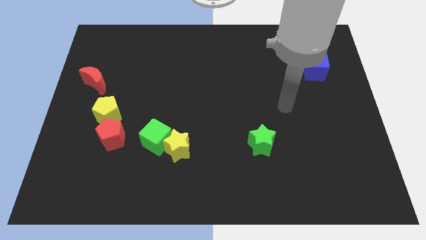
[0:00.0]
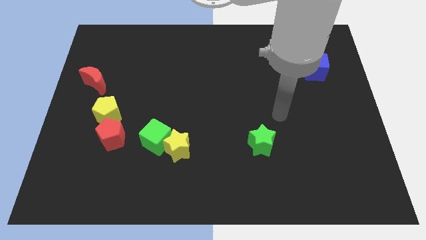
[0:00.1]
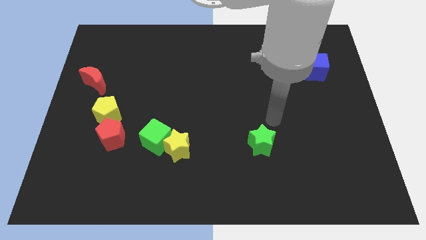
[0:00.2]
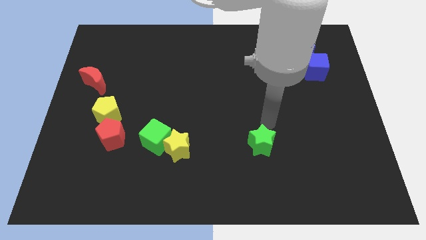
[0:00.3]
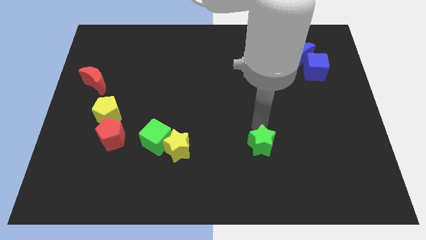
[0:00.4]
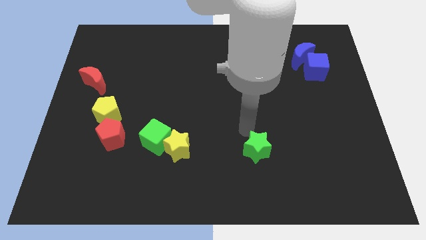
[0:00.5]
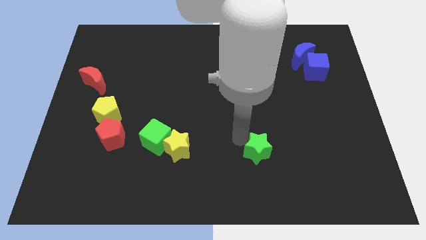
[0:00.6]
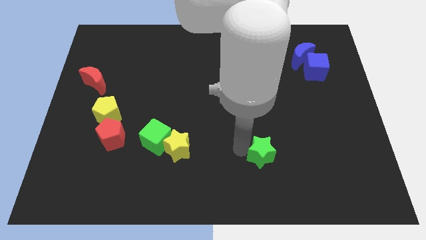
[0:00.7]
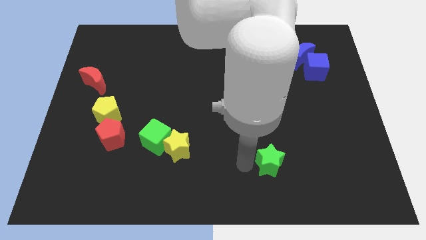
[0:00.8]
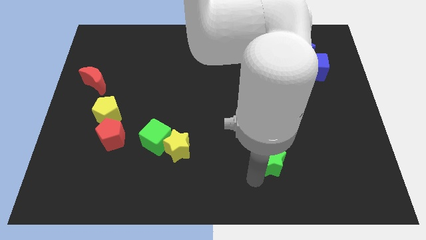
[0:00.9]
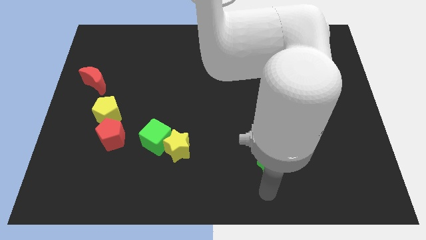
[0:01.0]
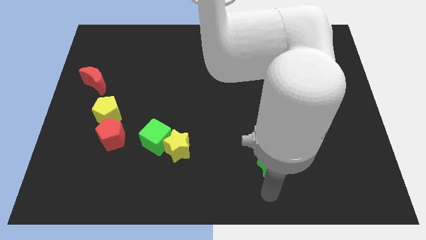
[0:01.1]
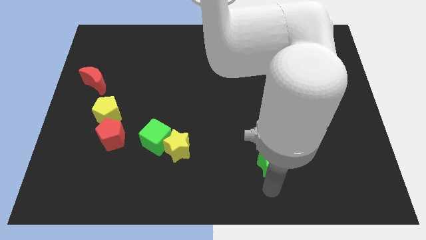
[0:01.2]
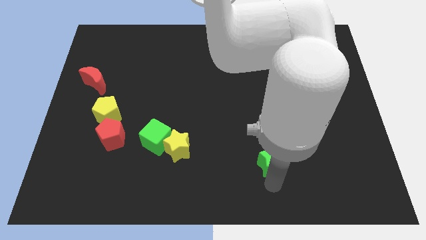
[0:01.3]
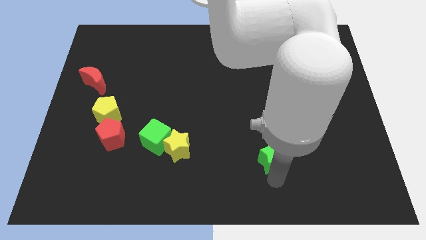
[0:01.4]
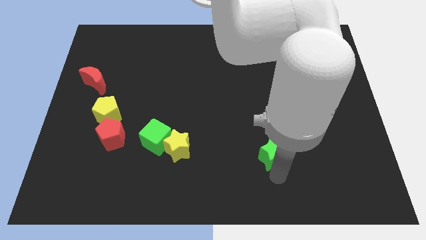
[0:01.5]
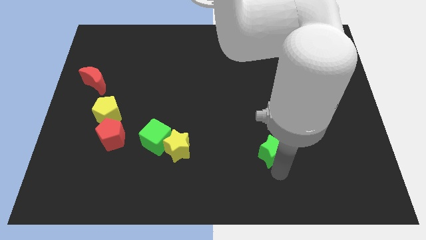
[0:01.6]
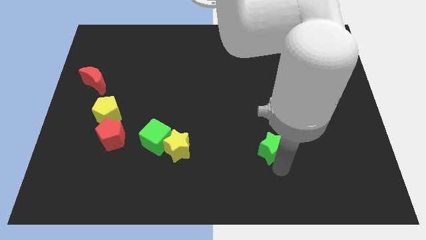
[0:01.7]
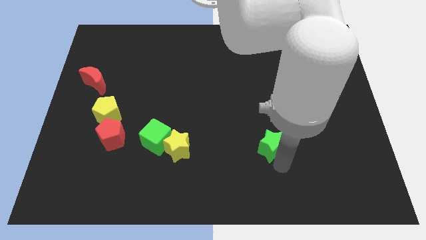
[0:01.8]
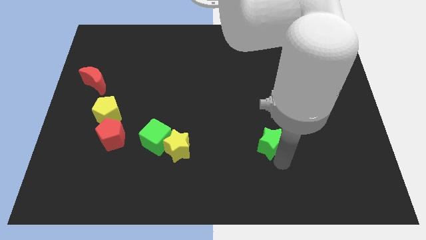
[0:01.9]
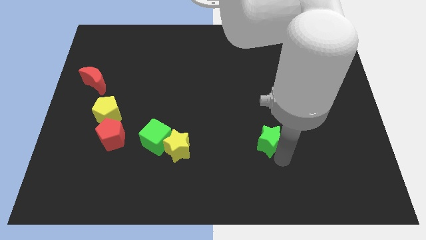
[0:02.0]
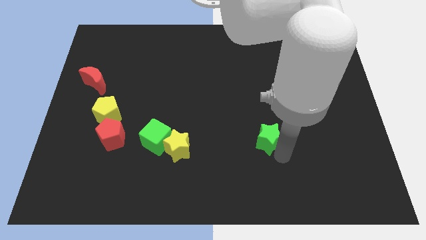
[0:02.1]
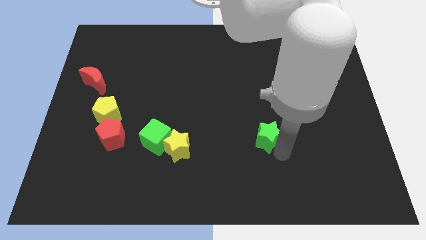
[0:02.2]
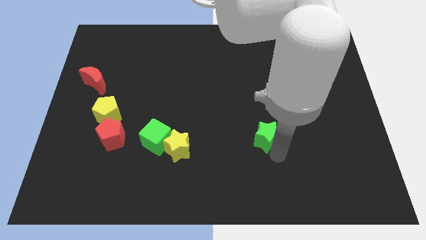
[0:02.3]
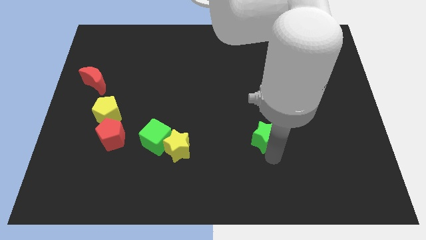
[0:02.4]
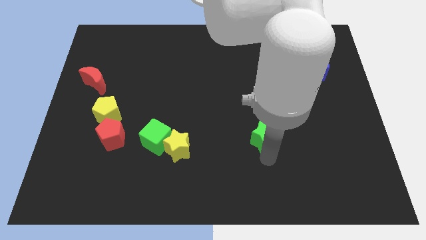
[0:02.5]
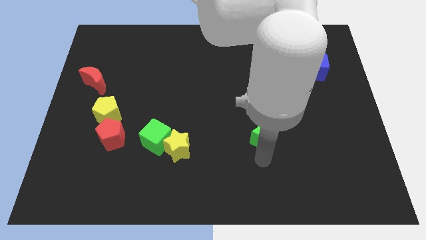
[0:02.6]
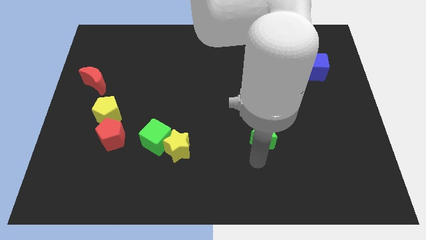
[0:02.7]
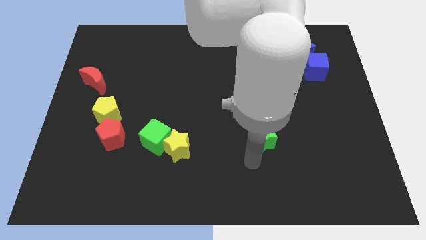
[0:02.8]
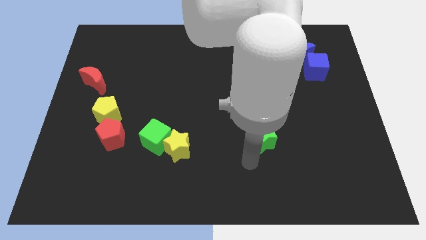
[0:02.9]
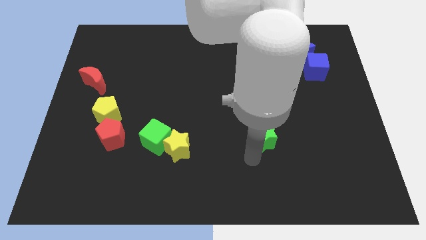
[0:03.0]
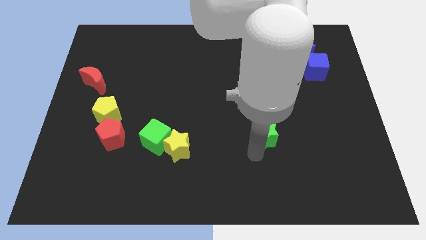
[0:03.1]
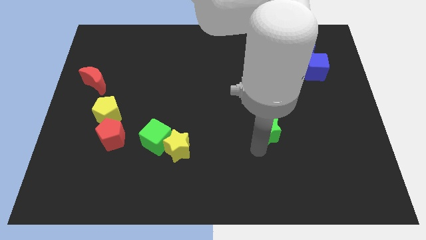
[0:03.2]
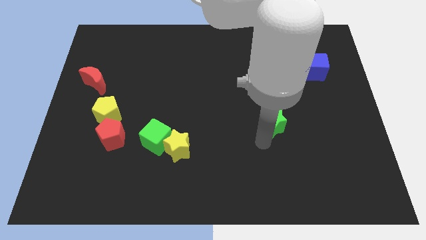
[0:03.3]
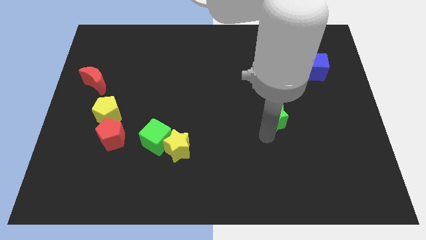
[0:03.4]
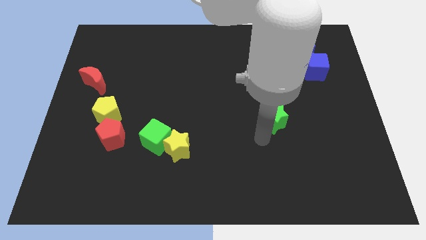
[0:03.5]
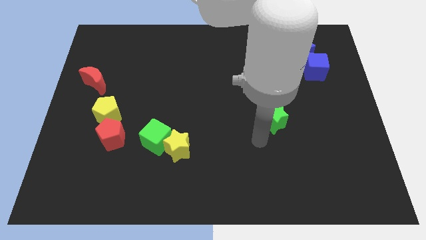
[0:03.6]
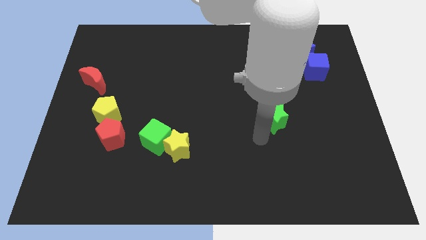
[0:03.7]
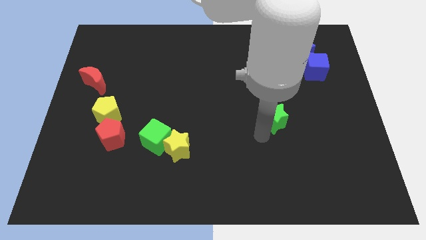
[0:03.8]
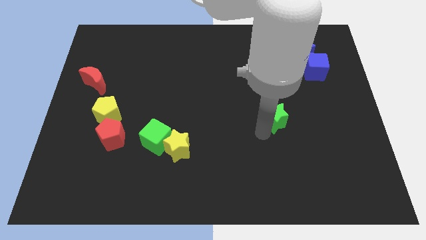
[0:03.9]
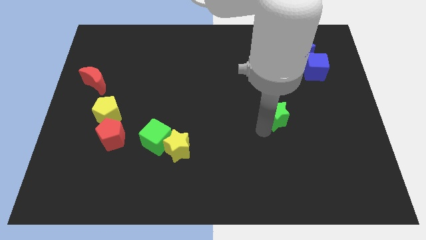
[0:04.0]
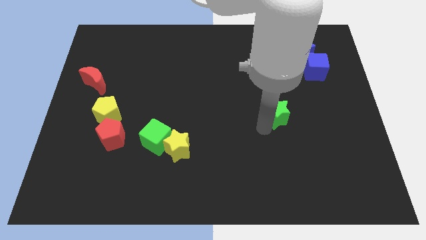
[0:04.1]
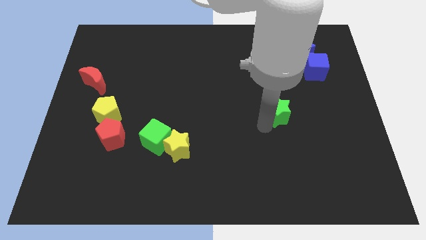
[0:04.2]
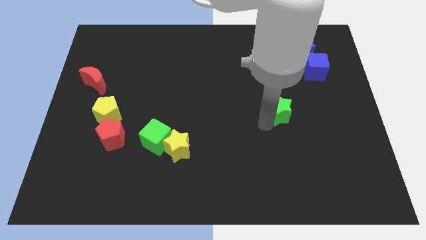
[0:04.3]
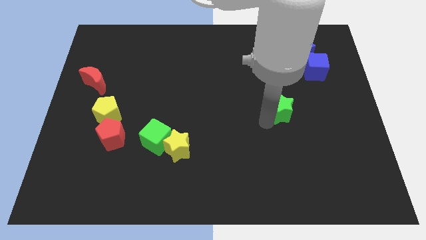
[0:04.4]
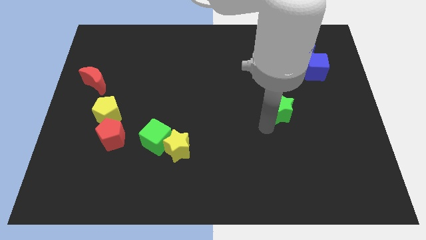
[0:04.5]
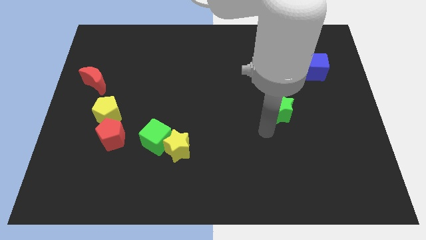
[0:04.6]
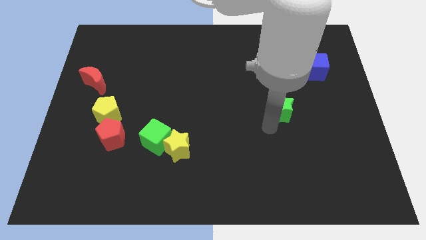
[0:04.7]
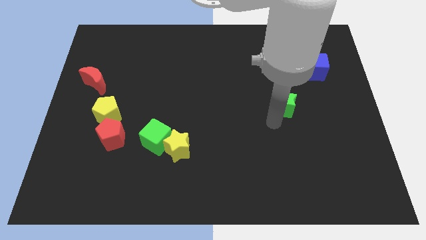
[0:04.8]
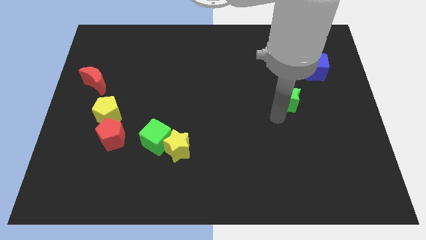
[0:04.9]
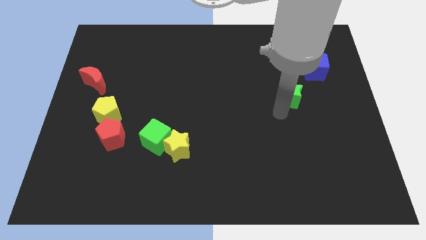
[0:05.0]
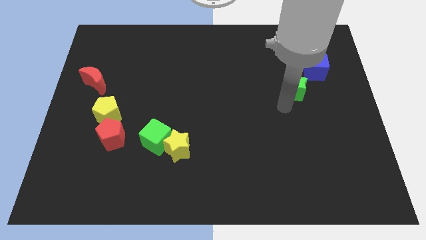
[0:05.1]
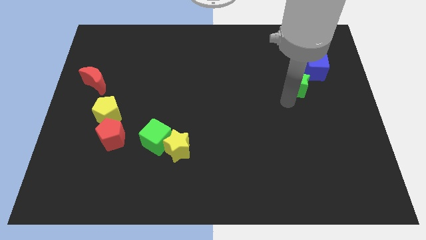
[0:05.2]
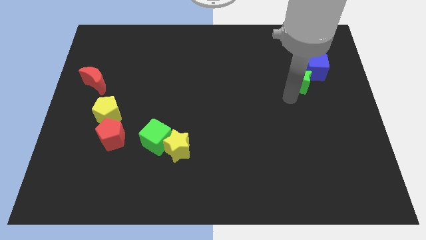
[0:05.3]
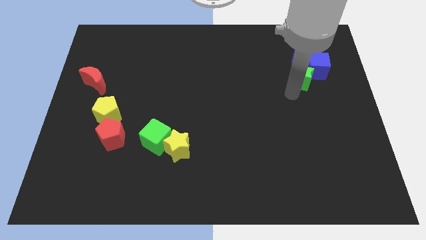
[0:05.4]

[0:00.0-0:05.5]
move the green star next to the blue cube

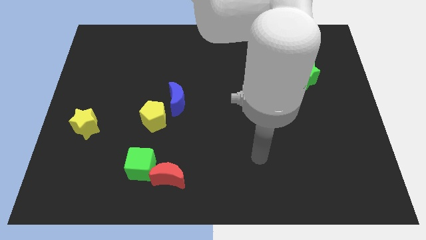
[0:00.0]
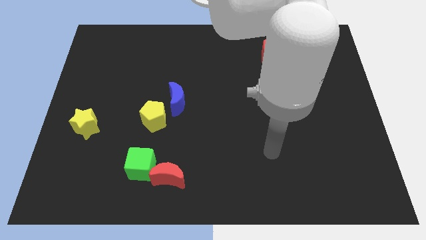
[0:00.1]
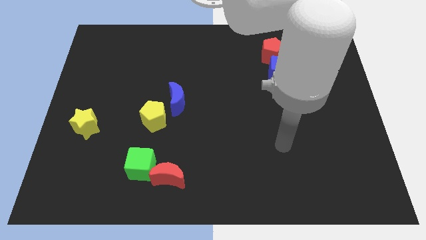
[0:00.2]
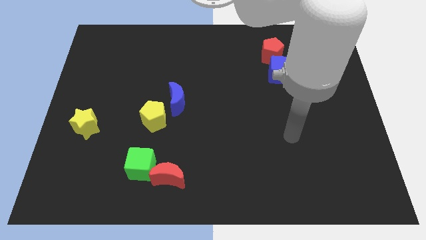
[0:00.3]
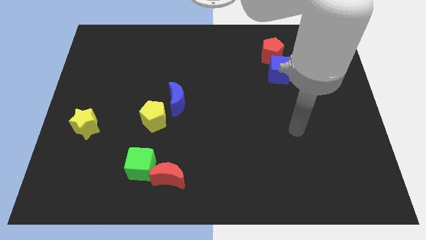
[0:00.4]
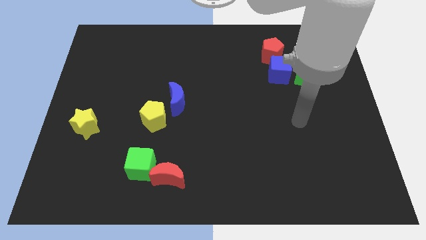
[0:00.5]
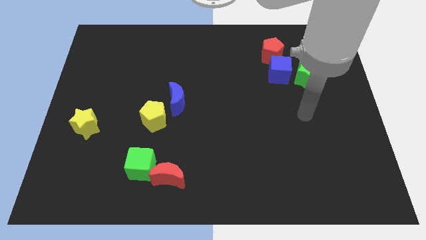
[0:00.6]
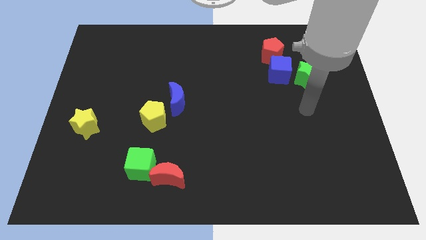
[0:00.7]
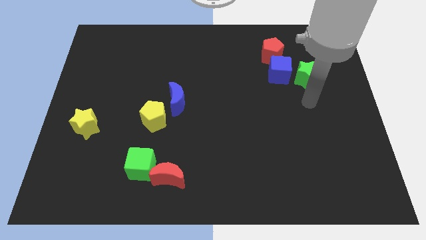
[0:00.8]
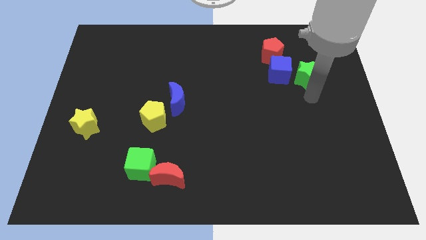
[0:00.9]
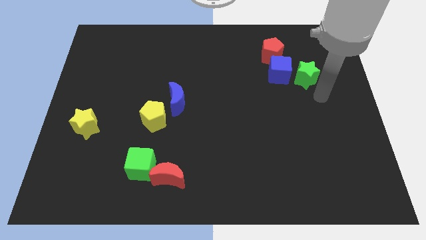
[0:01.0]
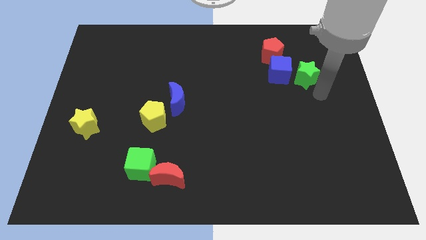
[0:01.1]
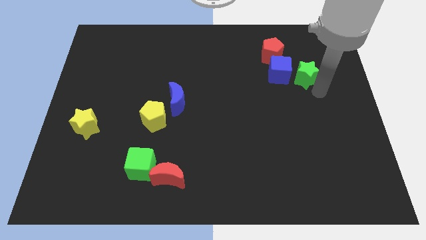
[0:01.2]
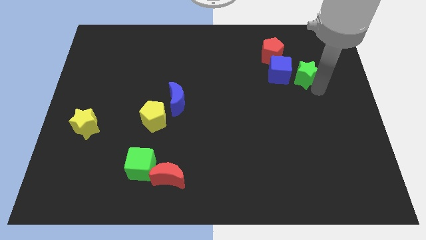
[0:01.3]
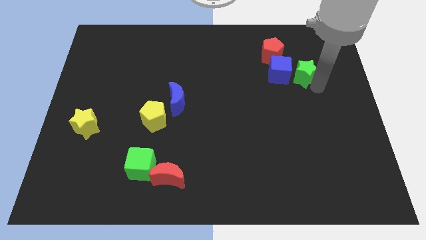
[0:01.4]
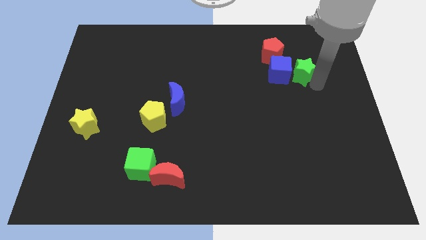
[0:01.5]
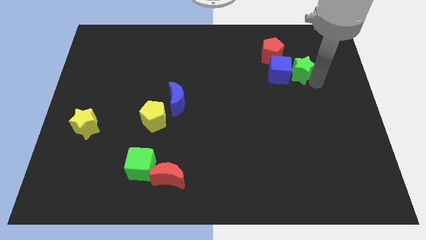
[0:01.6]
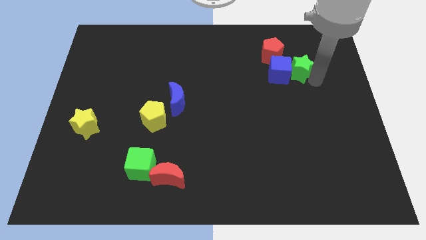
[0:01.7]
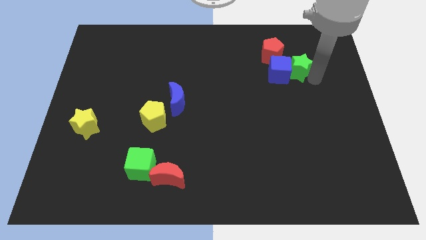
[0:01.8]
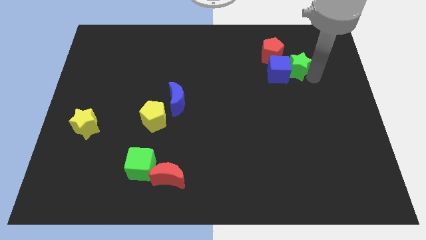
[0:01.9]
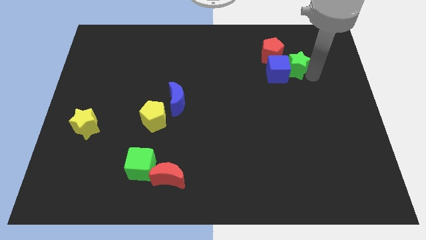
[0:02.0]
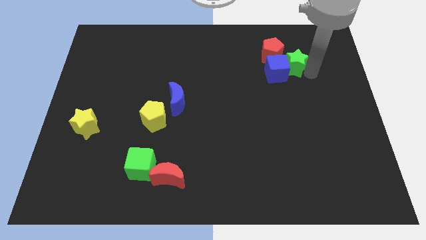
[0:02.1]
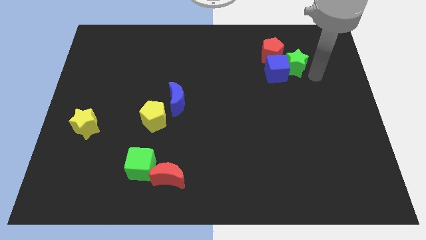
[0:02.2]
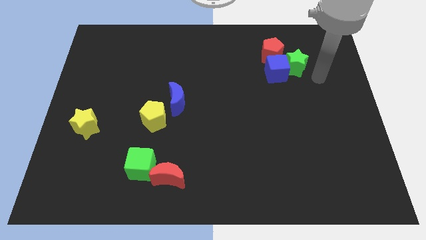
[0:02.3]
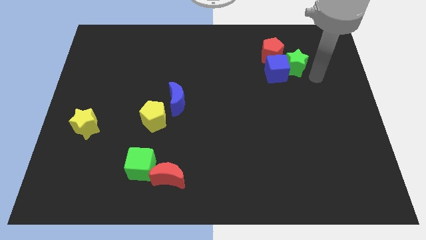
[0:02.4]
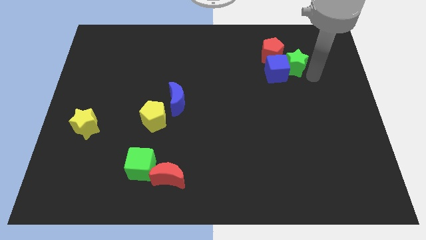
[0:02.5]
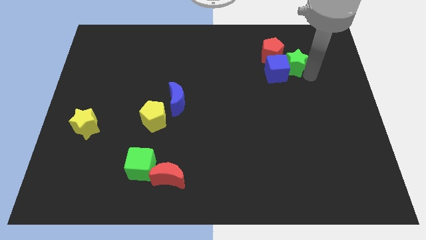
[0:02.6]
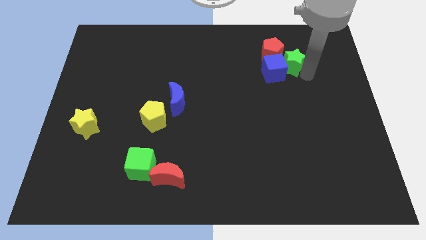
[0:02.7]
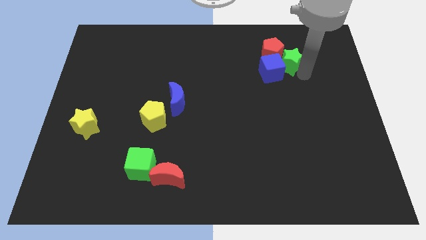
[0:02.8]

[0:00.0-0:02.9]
push the green star close to the red pentagon

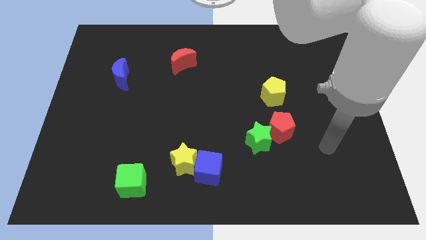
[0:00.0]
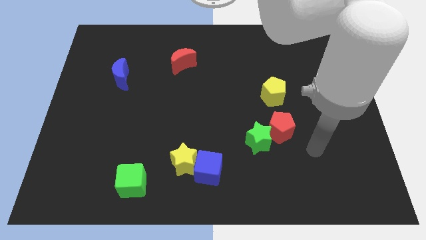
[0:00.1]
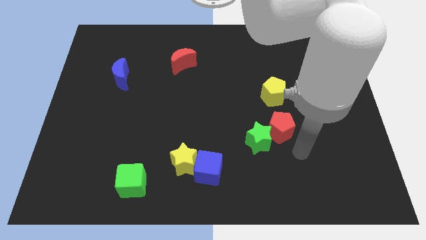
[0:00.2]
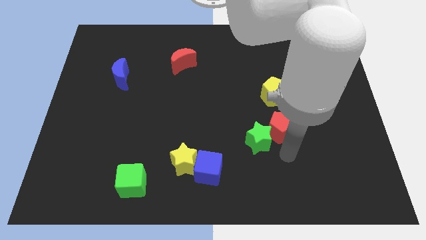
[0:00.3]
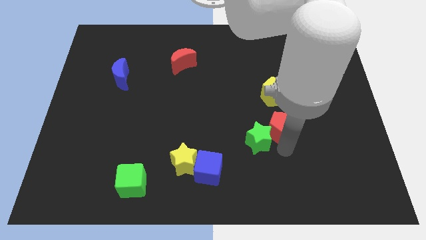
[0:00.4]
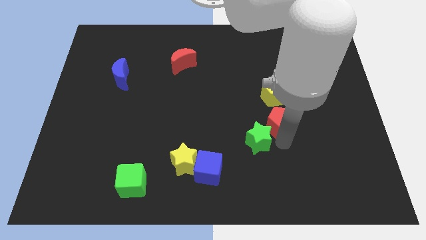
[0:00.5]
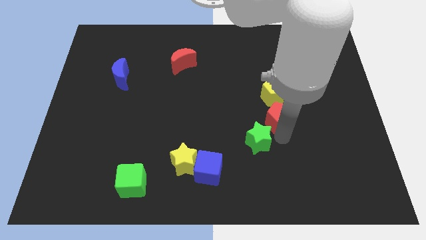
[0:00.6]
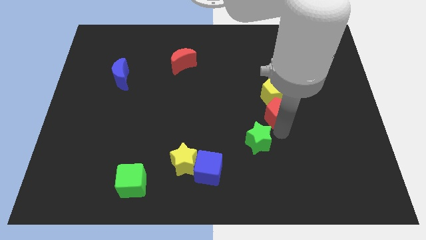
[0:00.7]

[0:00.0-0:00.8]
slide the red pentagon close to the yellow pentagon
